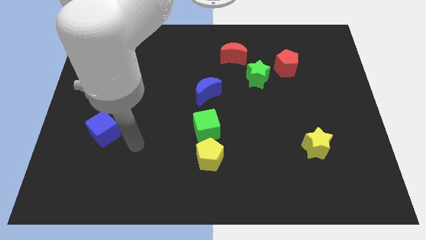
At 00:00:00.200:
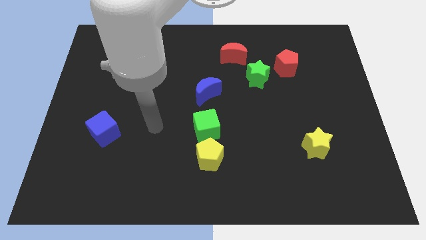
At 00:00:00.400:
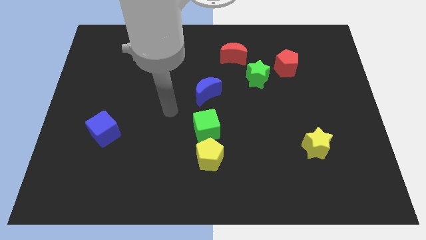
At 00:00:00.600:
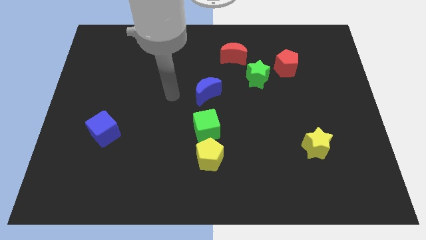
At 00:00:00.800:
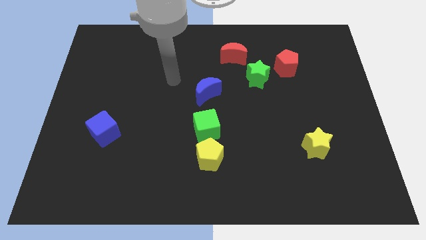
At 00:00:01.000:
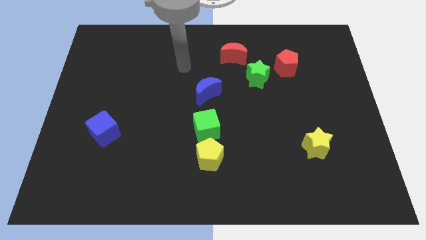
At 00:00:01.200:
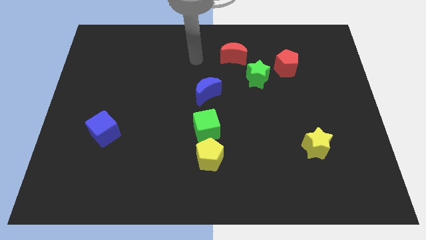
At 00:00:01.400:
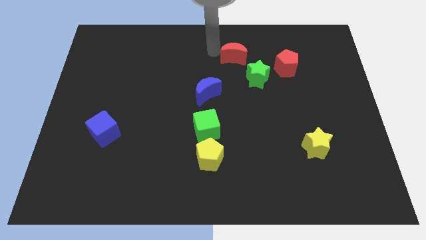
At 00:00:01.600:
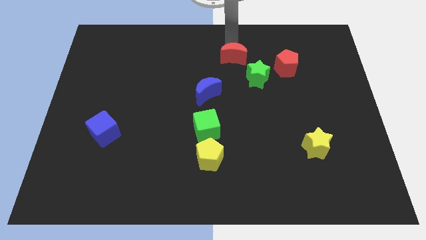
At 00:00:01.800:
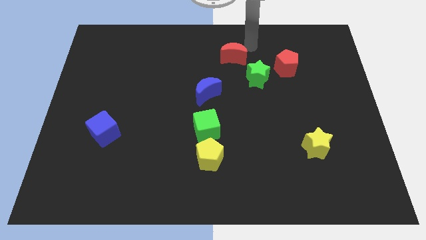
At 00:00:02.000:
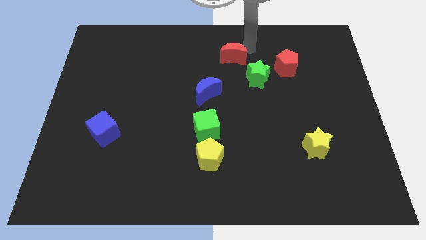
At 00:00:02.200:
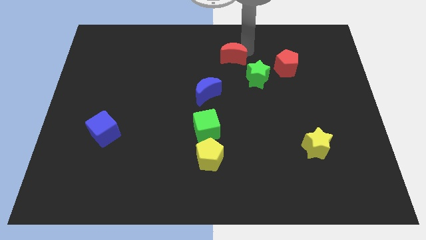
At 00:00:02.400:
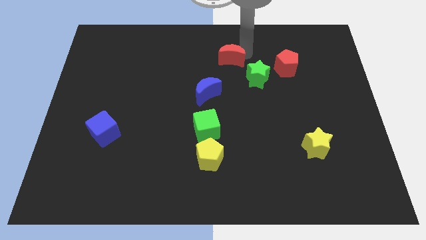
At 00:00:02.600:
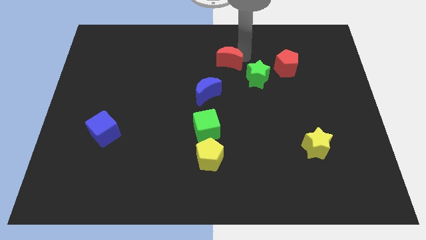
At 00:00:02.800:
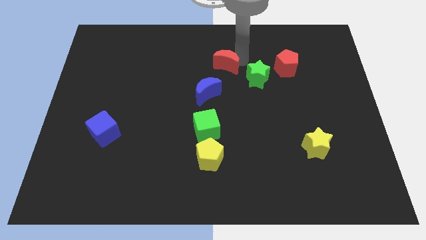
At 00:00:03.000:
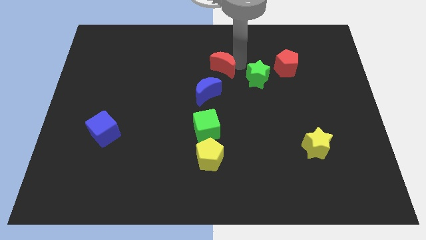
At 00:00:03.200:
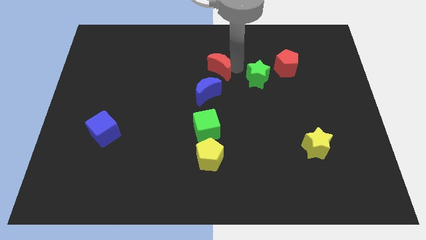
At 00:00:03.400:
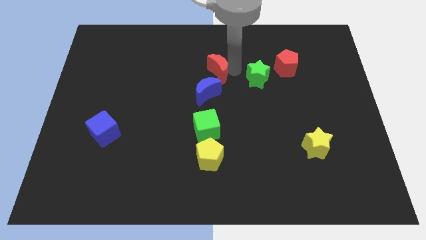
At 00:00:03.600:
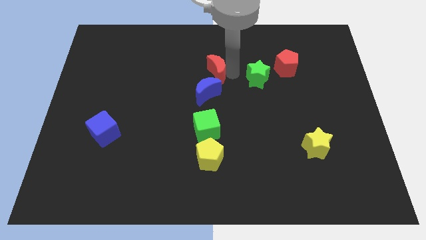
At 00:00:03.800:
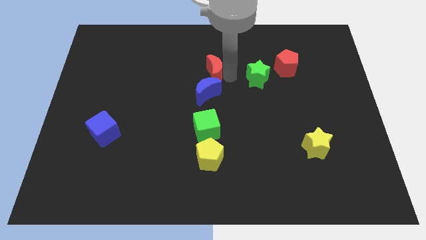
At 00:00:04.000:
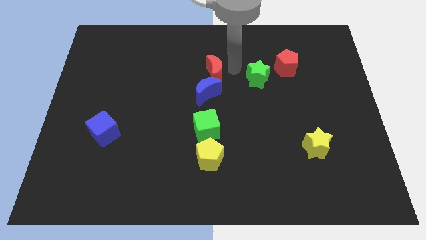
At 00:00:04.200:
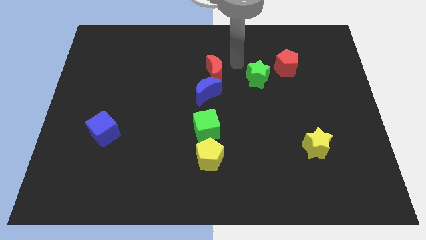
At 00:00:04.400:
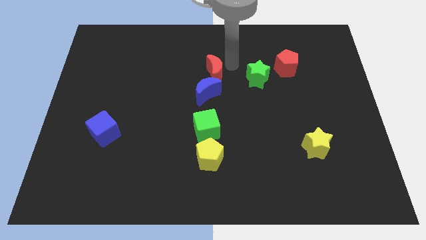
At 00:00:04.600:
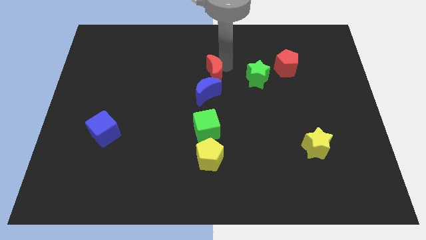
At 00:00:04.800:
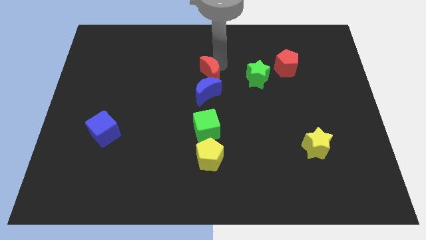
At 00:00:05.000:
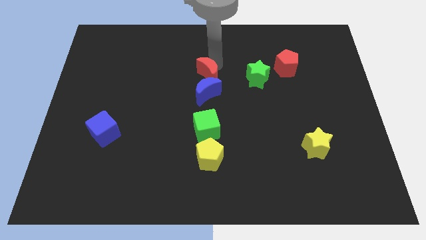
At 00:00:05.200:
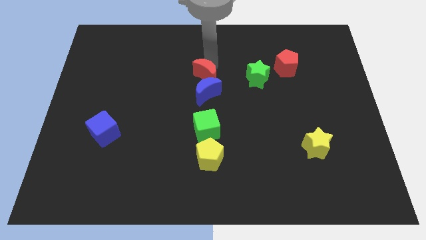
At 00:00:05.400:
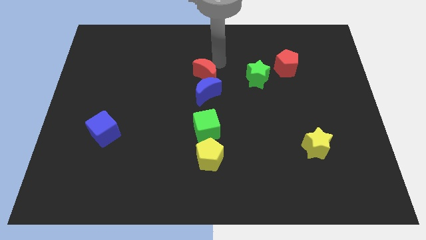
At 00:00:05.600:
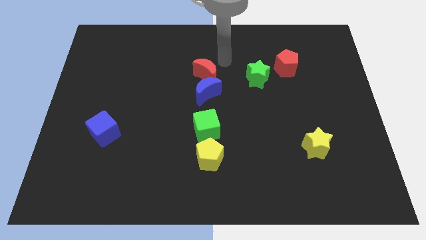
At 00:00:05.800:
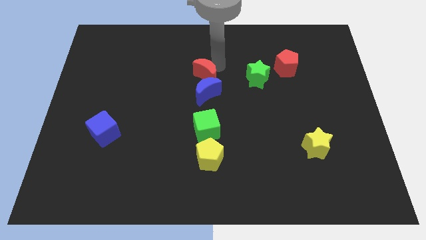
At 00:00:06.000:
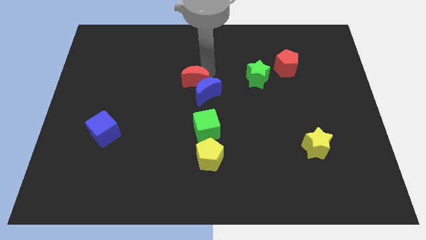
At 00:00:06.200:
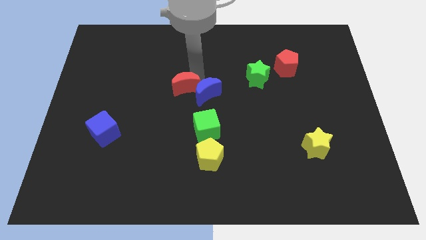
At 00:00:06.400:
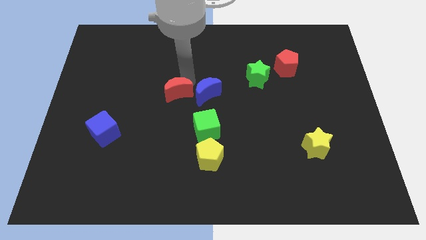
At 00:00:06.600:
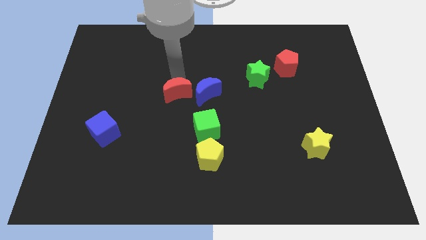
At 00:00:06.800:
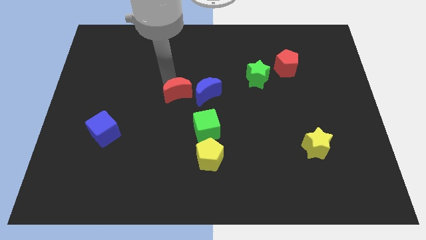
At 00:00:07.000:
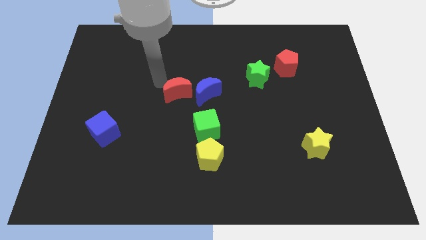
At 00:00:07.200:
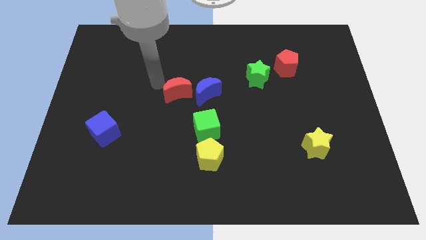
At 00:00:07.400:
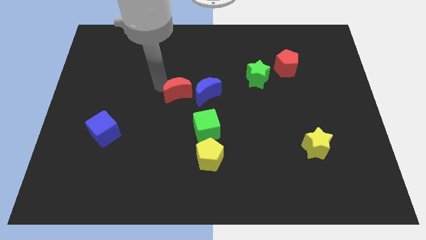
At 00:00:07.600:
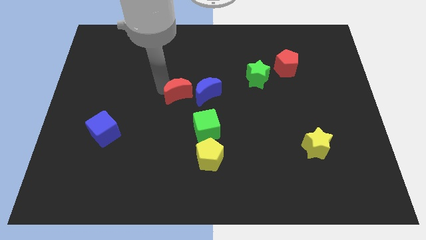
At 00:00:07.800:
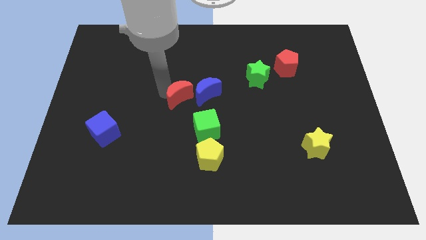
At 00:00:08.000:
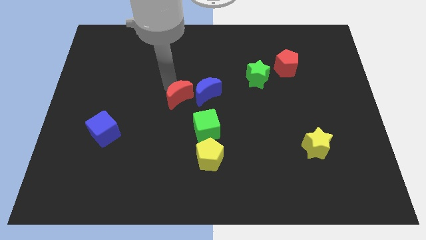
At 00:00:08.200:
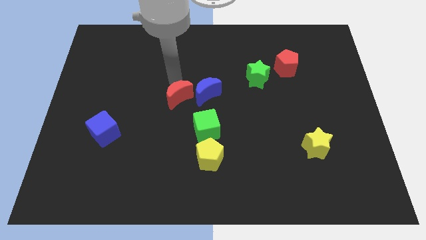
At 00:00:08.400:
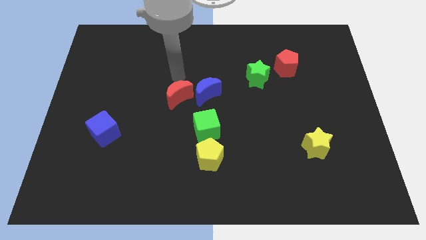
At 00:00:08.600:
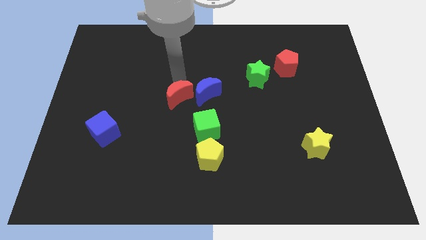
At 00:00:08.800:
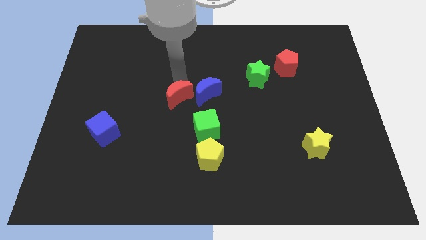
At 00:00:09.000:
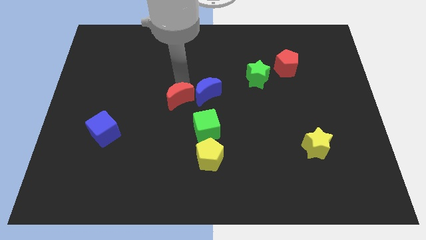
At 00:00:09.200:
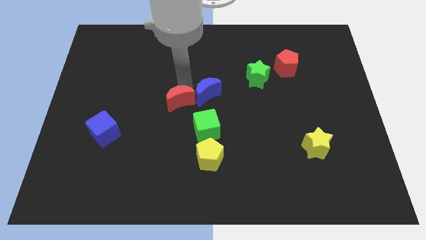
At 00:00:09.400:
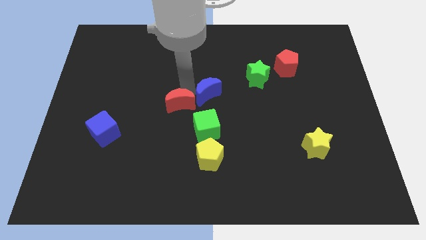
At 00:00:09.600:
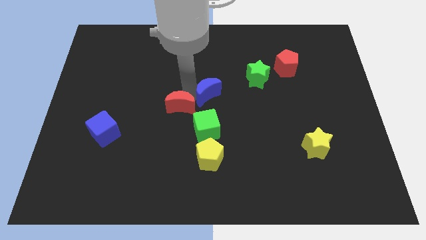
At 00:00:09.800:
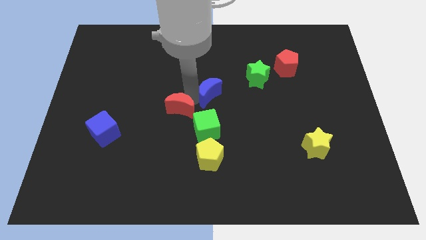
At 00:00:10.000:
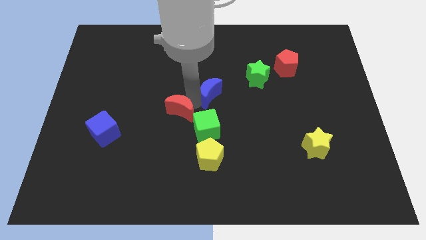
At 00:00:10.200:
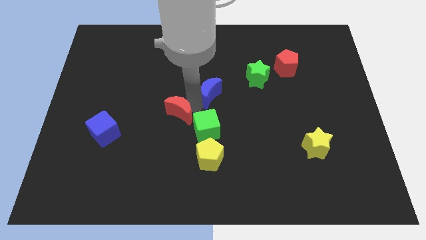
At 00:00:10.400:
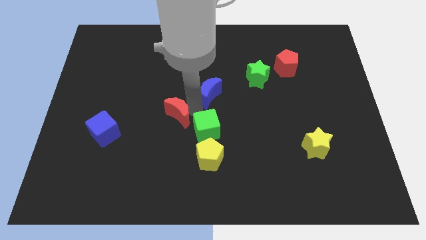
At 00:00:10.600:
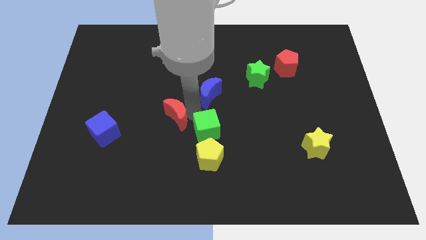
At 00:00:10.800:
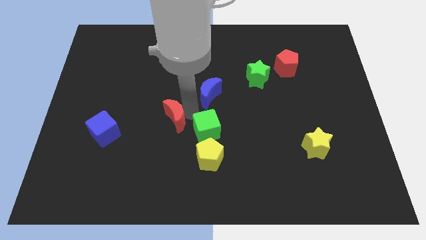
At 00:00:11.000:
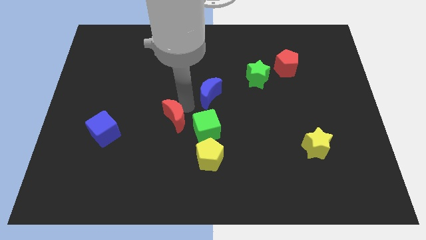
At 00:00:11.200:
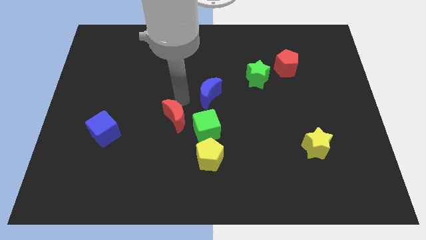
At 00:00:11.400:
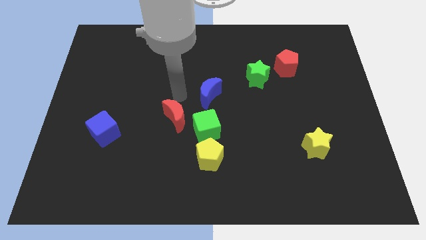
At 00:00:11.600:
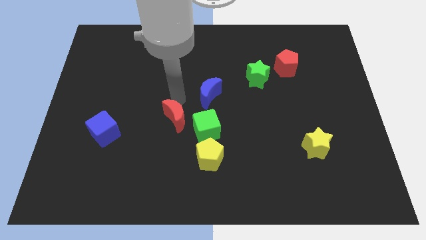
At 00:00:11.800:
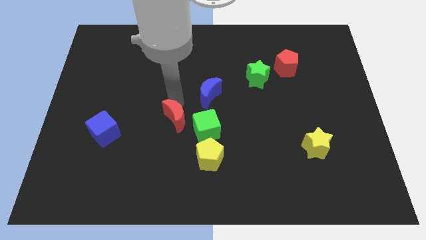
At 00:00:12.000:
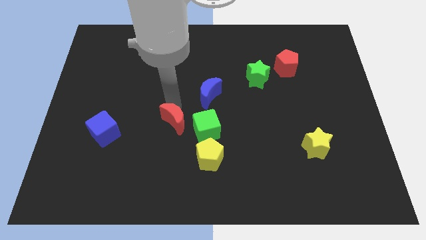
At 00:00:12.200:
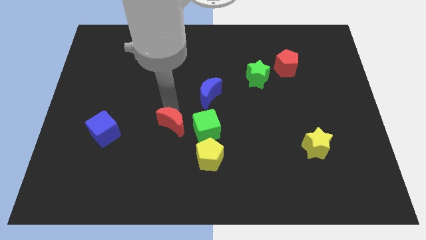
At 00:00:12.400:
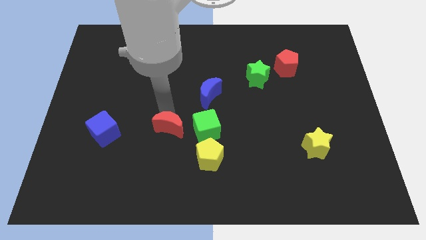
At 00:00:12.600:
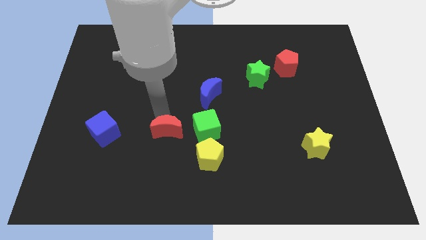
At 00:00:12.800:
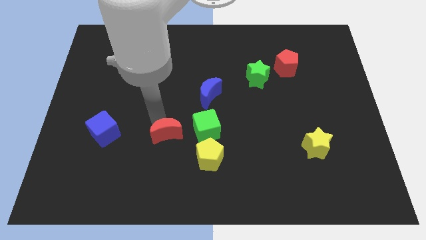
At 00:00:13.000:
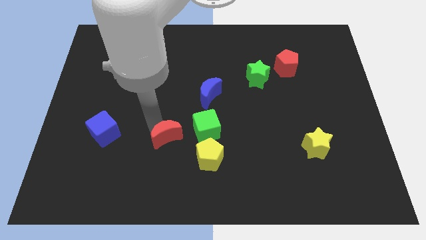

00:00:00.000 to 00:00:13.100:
push the red moon to the bottom left of the green cube
